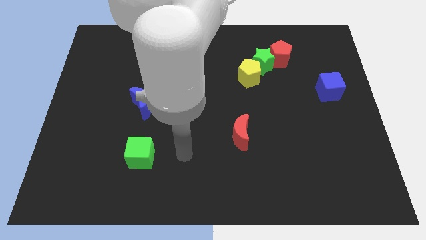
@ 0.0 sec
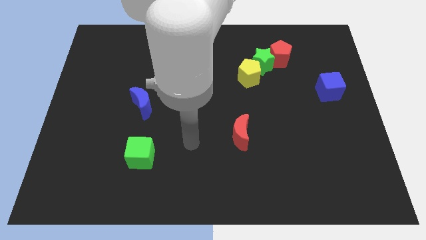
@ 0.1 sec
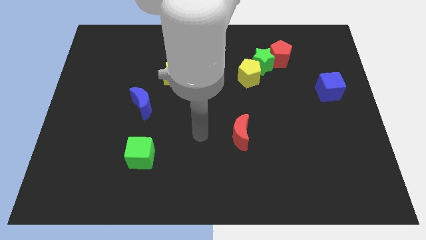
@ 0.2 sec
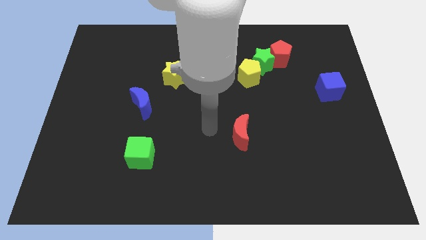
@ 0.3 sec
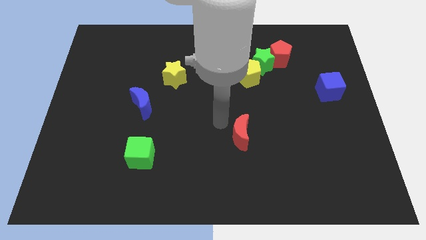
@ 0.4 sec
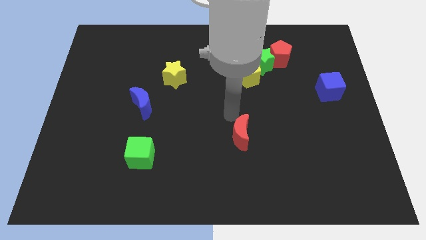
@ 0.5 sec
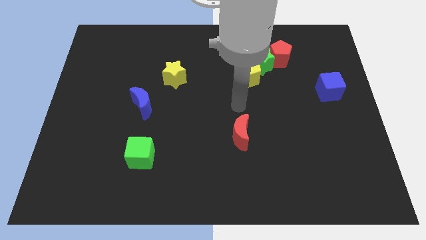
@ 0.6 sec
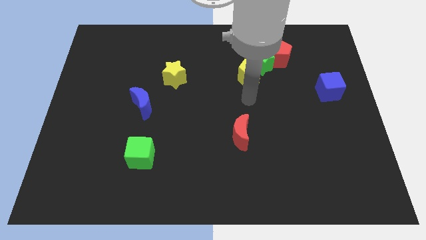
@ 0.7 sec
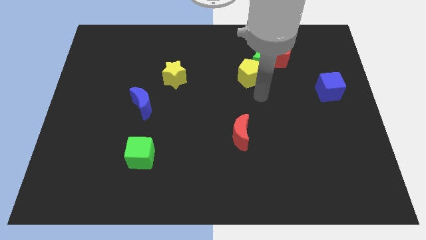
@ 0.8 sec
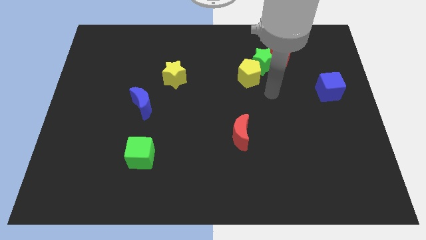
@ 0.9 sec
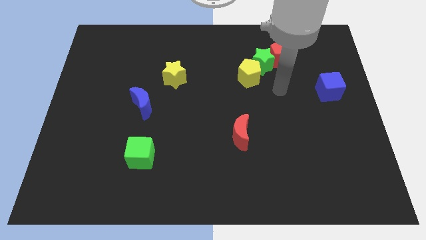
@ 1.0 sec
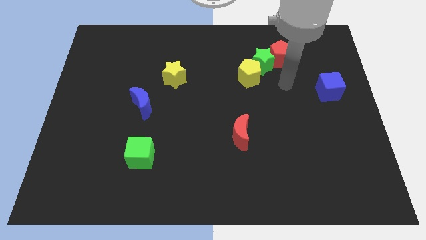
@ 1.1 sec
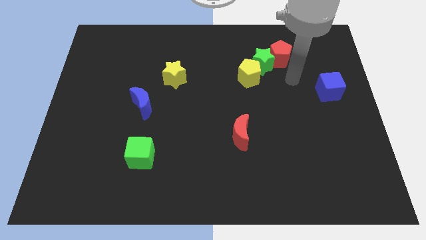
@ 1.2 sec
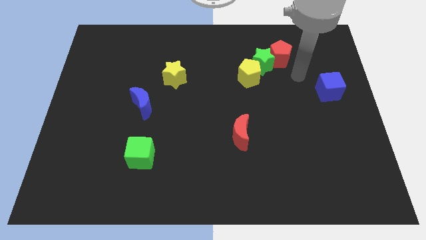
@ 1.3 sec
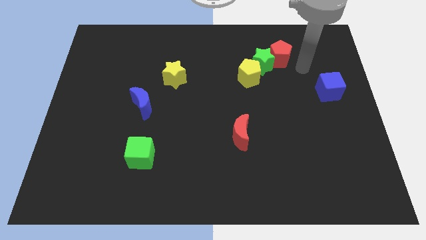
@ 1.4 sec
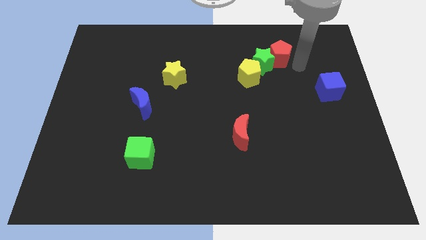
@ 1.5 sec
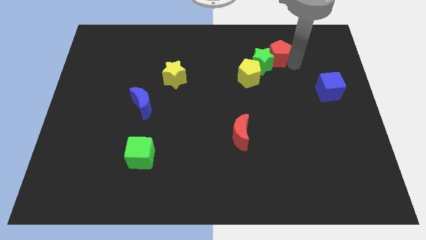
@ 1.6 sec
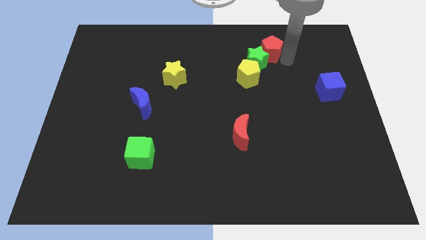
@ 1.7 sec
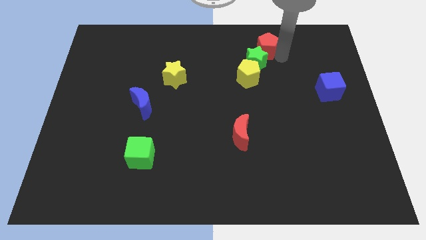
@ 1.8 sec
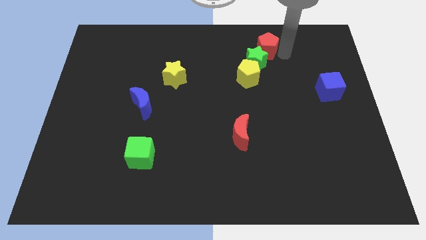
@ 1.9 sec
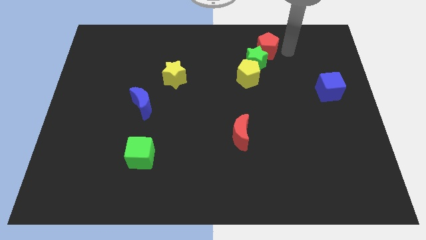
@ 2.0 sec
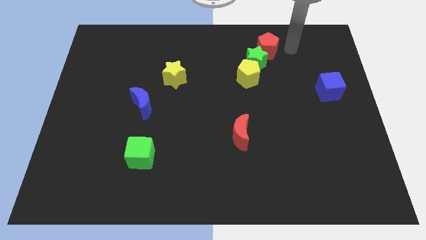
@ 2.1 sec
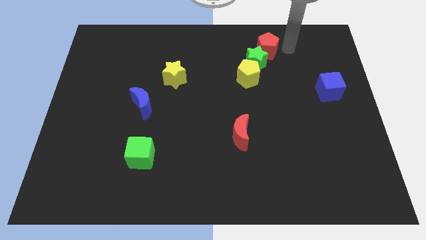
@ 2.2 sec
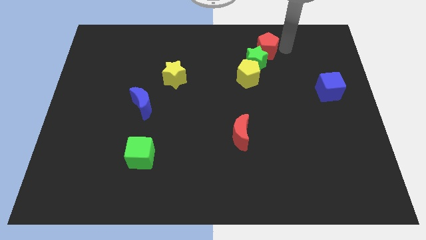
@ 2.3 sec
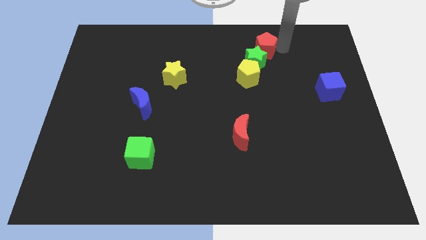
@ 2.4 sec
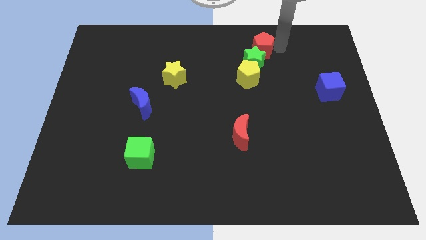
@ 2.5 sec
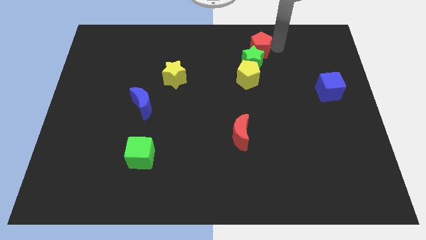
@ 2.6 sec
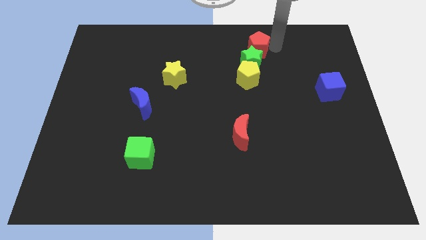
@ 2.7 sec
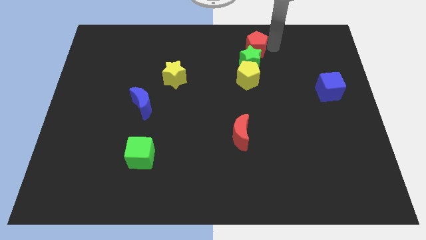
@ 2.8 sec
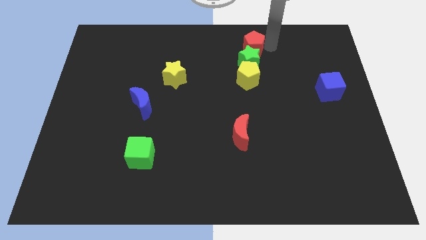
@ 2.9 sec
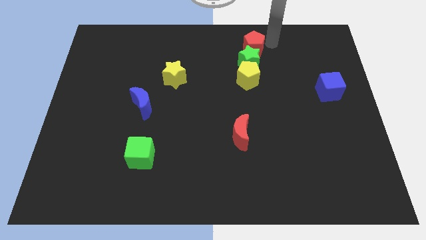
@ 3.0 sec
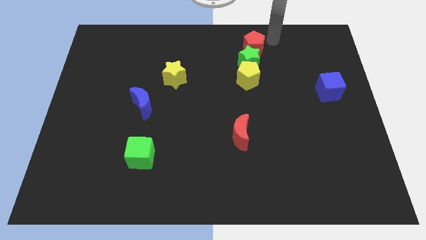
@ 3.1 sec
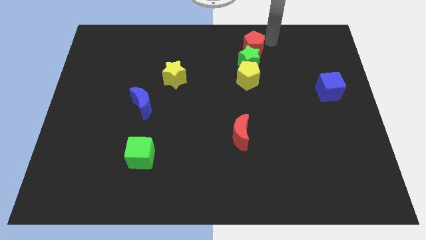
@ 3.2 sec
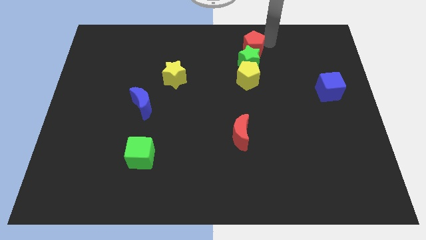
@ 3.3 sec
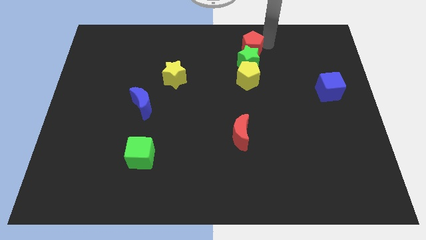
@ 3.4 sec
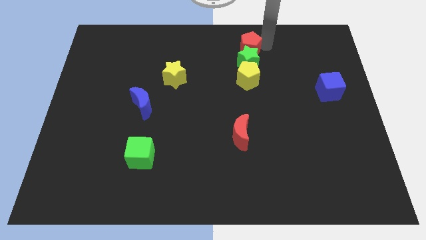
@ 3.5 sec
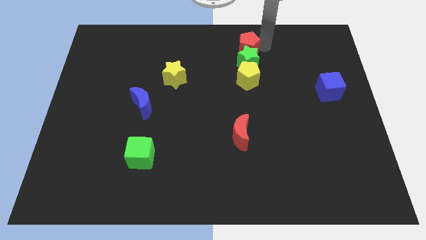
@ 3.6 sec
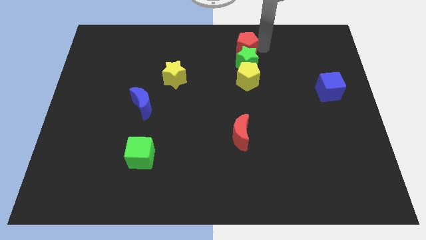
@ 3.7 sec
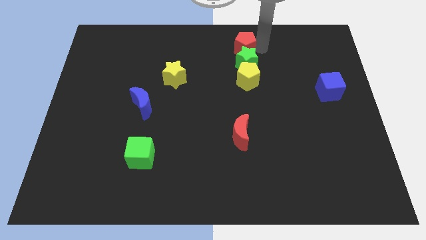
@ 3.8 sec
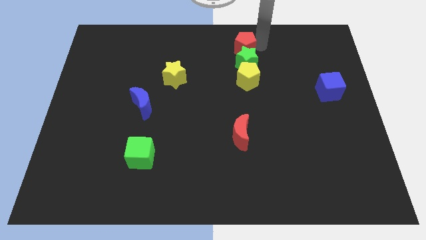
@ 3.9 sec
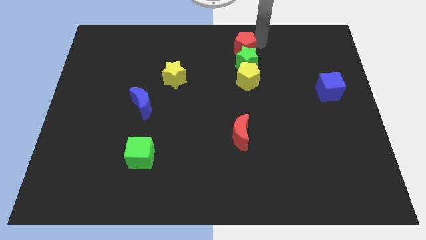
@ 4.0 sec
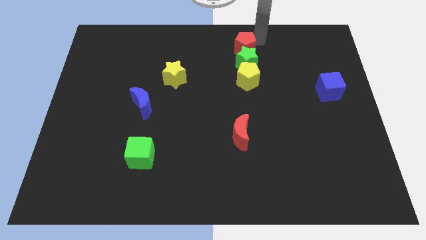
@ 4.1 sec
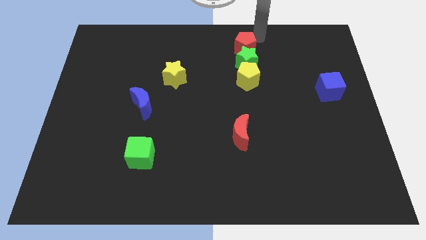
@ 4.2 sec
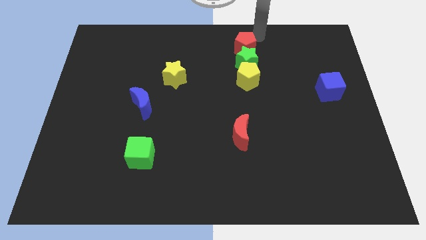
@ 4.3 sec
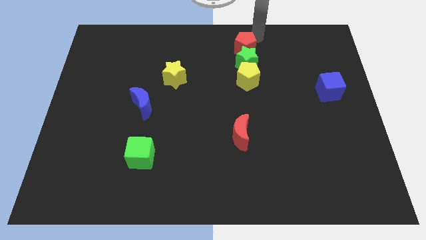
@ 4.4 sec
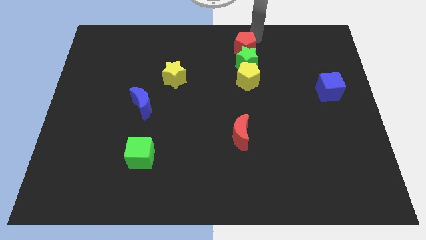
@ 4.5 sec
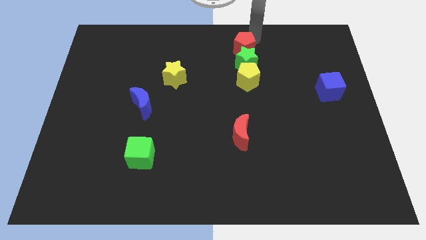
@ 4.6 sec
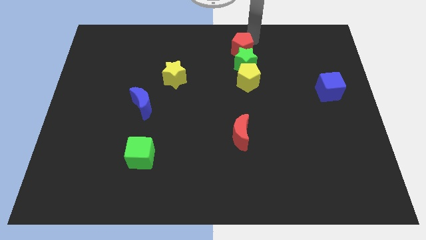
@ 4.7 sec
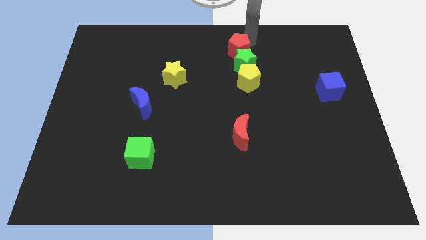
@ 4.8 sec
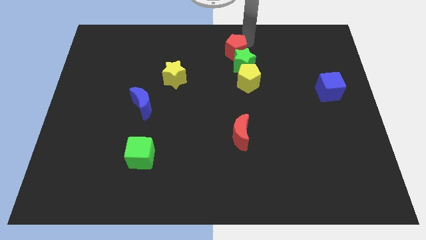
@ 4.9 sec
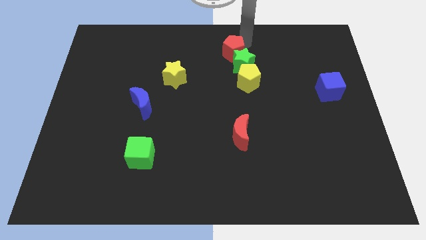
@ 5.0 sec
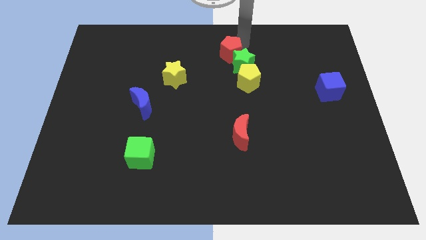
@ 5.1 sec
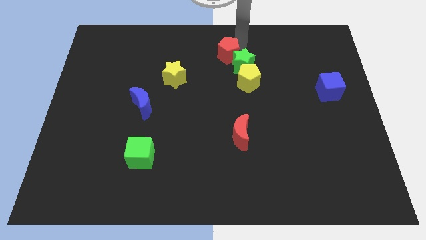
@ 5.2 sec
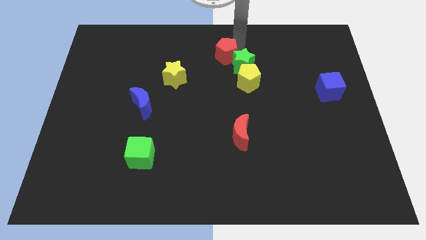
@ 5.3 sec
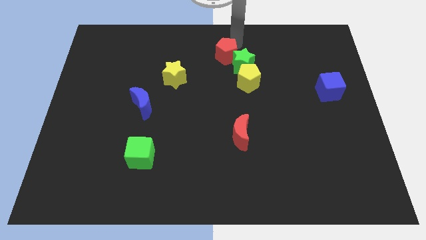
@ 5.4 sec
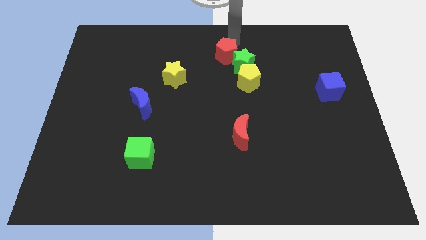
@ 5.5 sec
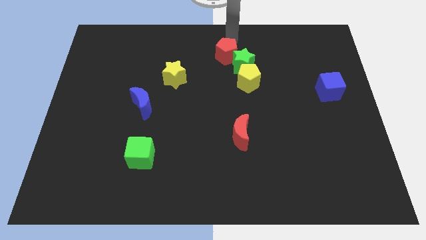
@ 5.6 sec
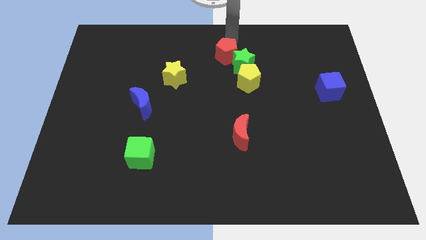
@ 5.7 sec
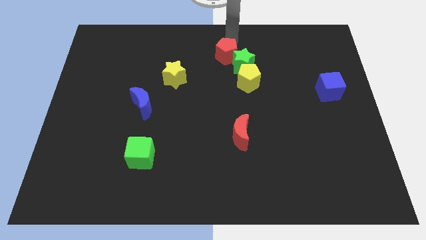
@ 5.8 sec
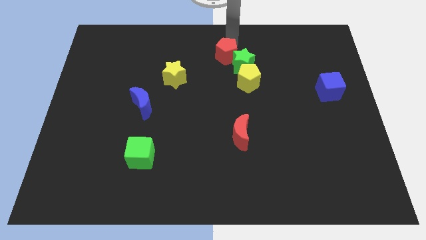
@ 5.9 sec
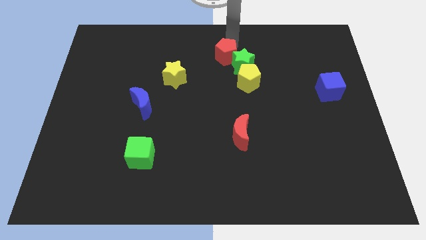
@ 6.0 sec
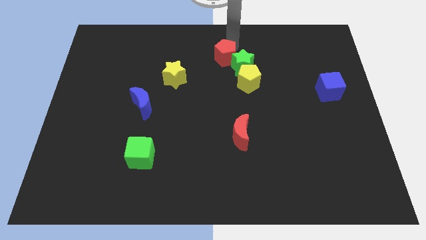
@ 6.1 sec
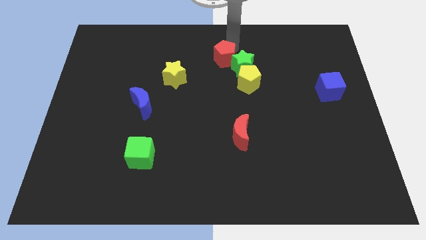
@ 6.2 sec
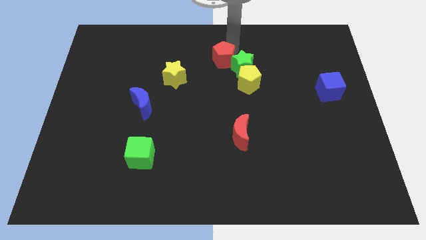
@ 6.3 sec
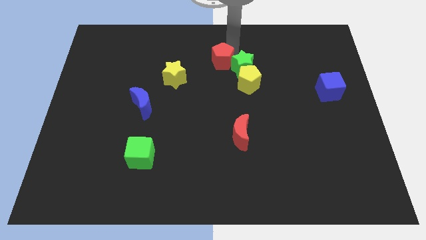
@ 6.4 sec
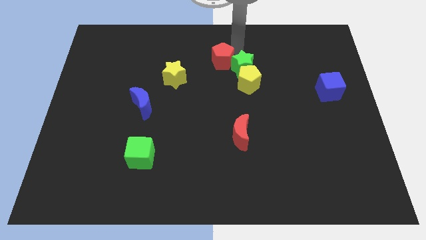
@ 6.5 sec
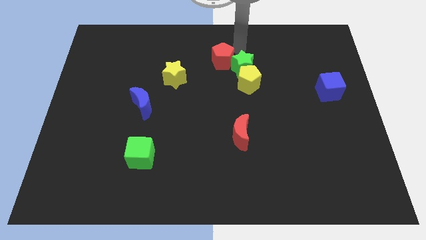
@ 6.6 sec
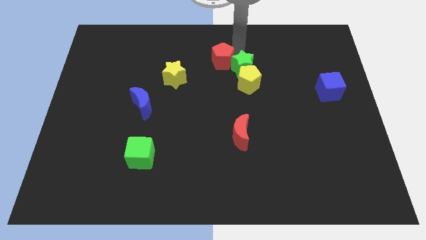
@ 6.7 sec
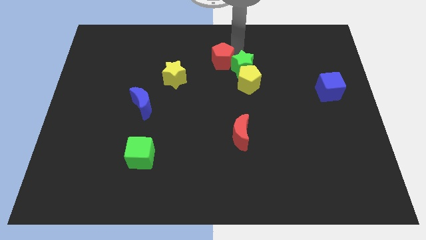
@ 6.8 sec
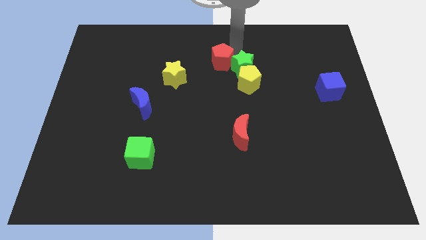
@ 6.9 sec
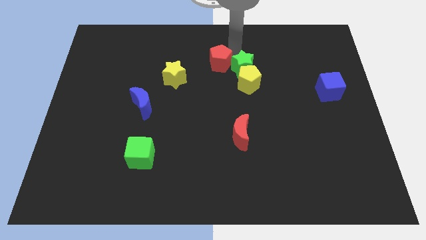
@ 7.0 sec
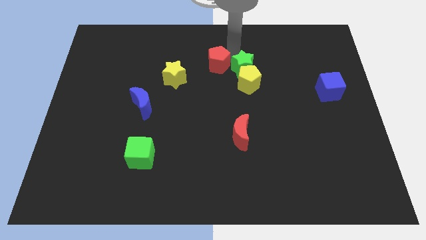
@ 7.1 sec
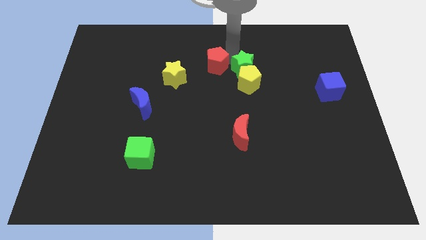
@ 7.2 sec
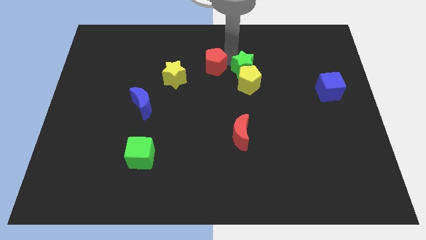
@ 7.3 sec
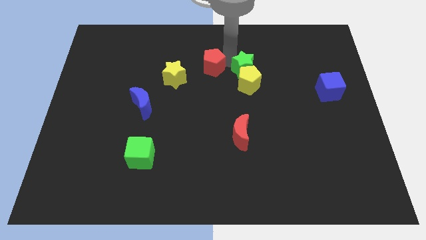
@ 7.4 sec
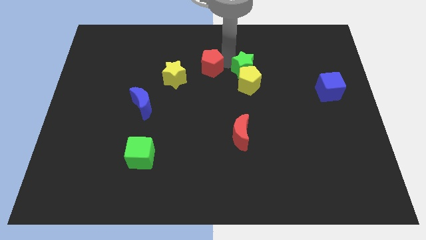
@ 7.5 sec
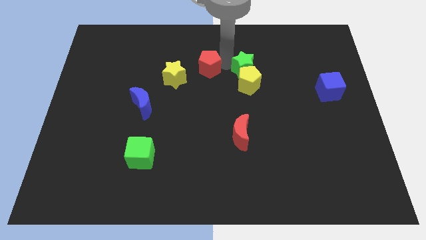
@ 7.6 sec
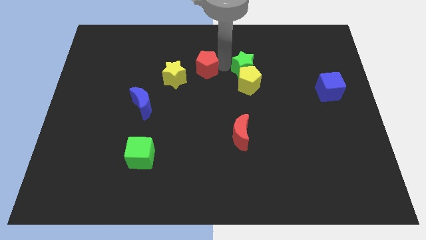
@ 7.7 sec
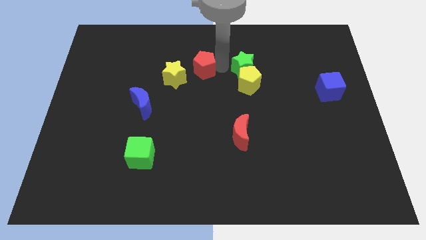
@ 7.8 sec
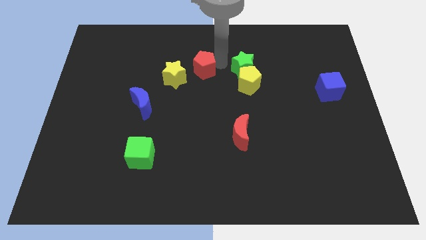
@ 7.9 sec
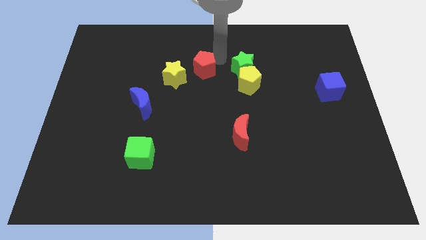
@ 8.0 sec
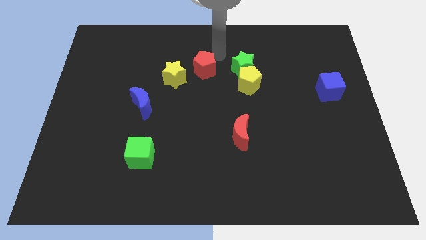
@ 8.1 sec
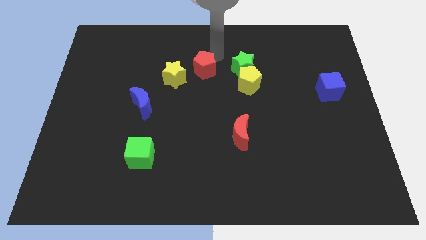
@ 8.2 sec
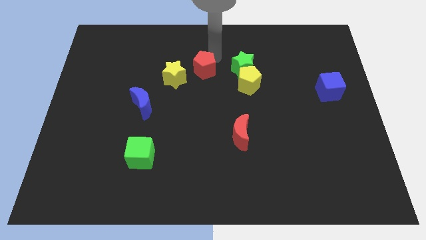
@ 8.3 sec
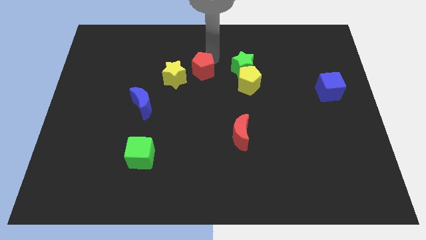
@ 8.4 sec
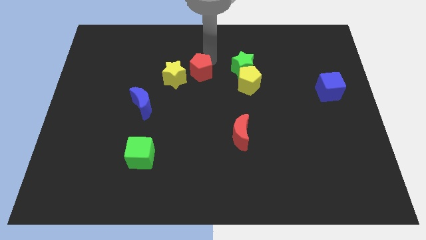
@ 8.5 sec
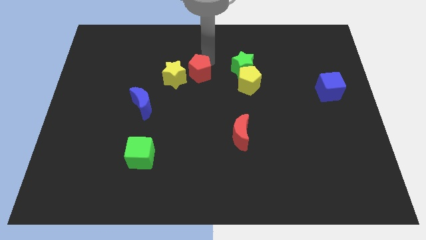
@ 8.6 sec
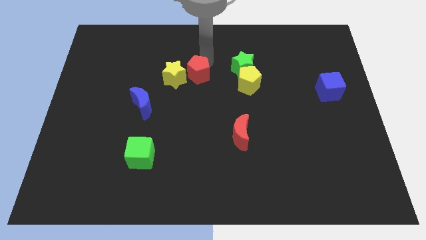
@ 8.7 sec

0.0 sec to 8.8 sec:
push the red pentagon to the yellow star
